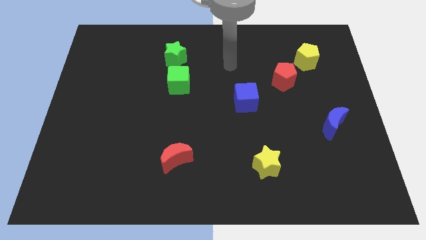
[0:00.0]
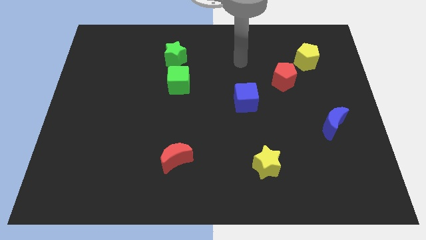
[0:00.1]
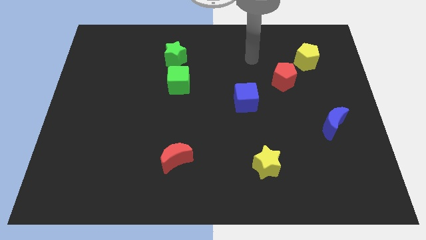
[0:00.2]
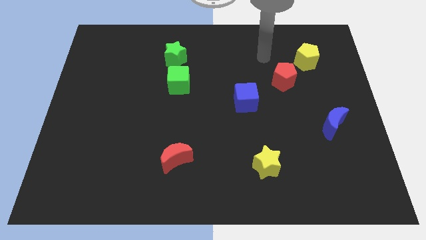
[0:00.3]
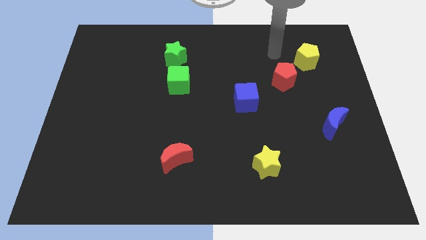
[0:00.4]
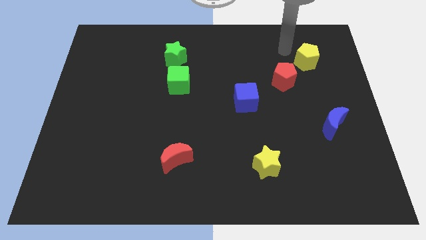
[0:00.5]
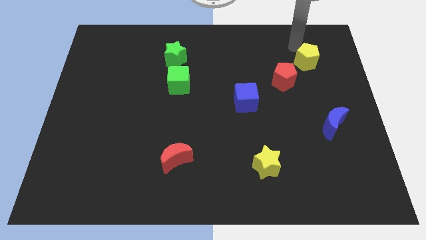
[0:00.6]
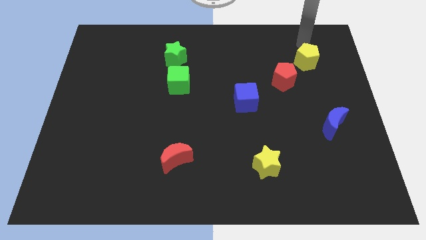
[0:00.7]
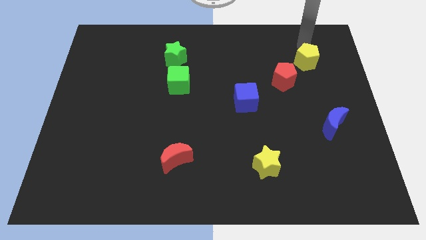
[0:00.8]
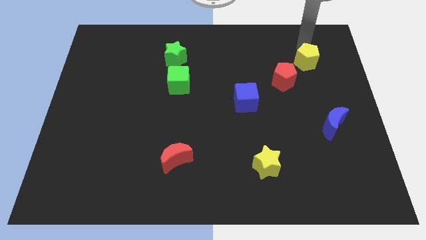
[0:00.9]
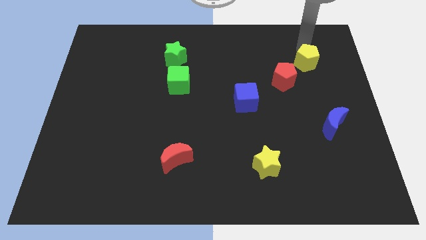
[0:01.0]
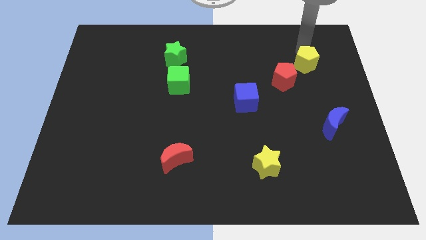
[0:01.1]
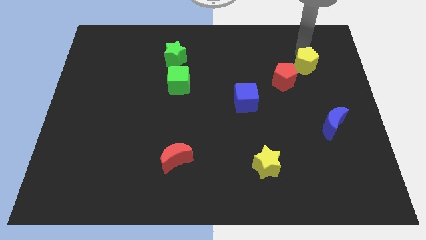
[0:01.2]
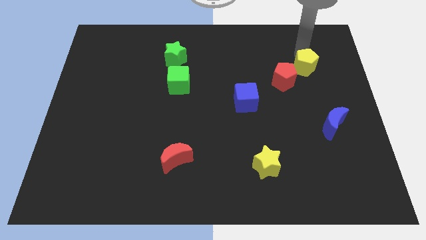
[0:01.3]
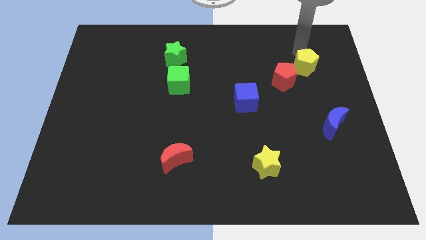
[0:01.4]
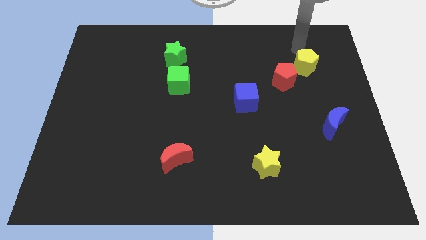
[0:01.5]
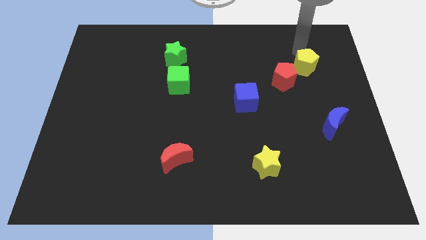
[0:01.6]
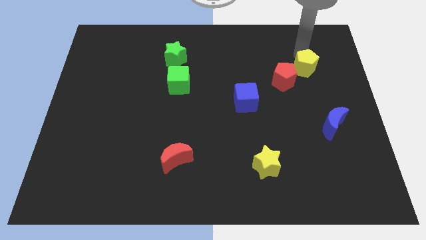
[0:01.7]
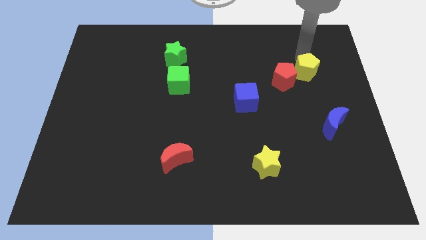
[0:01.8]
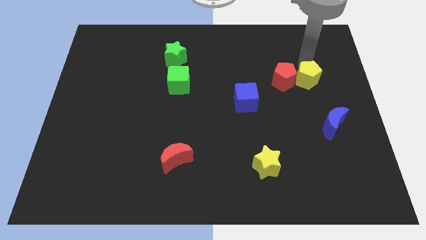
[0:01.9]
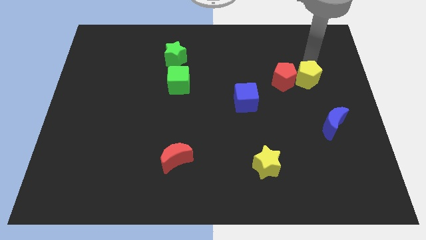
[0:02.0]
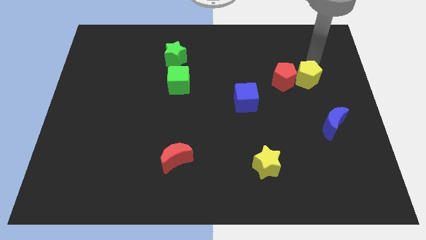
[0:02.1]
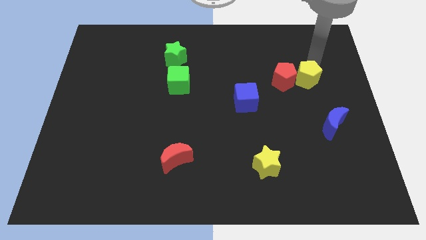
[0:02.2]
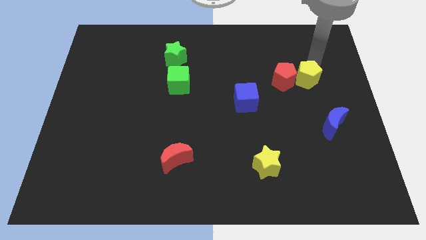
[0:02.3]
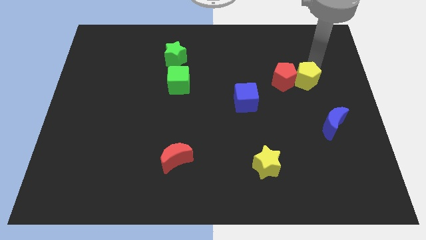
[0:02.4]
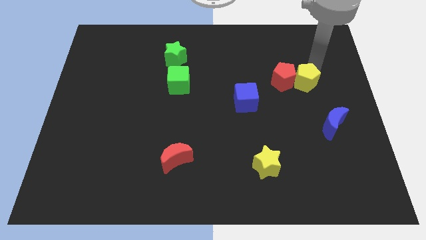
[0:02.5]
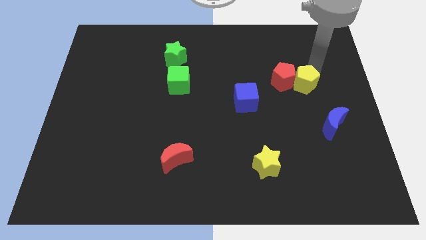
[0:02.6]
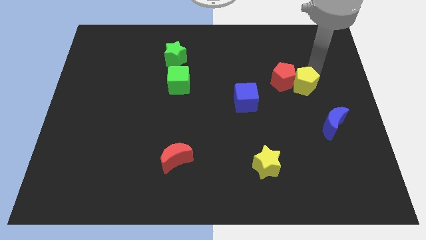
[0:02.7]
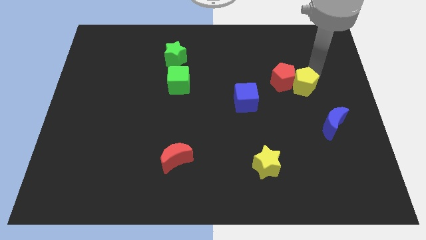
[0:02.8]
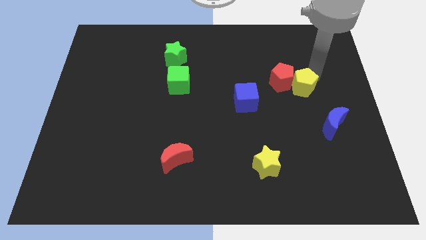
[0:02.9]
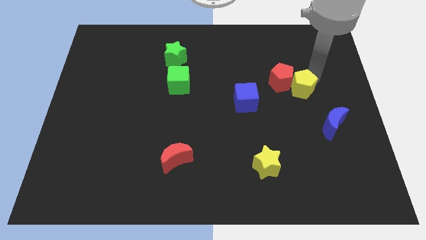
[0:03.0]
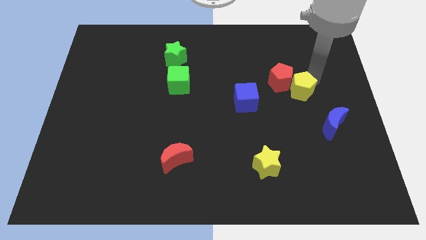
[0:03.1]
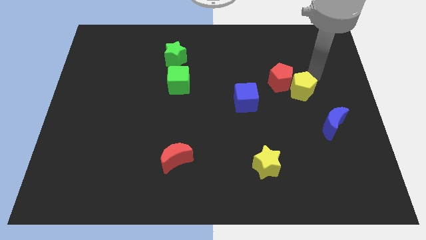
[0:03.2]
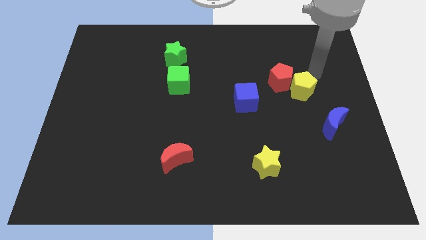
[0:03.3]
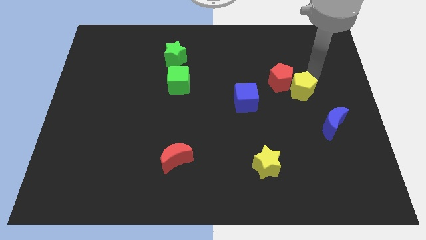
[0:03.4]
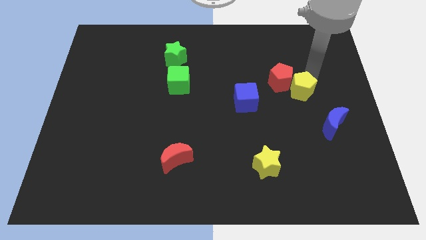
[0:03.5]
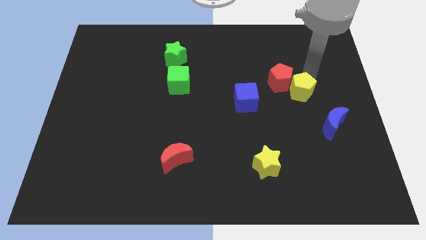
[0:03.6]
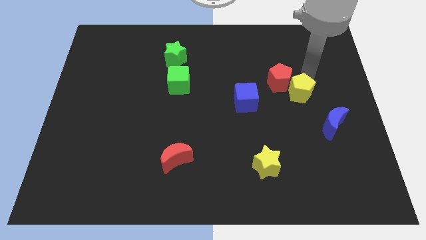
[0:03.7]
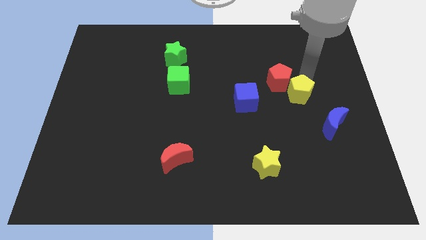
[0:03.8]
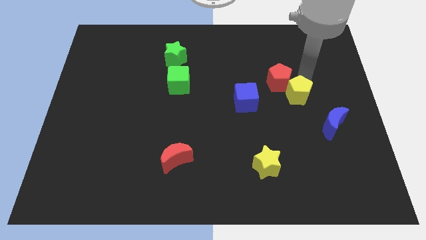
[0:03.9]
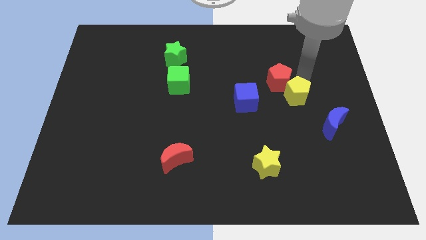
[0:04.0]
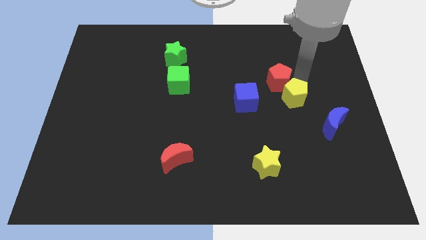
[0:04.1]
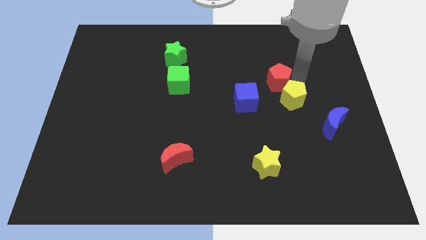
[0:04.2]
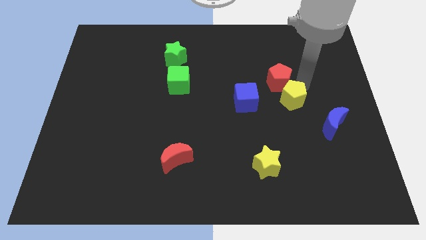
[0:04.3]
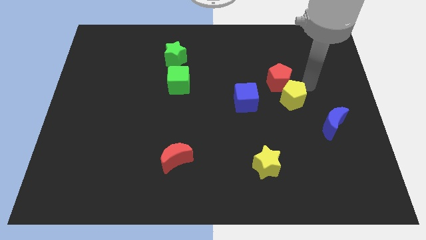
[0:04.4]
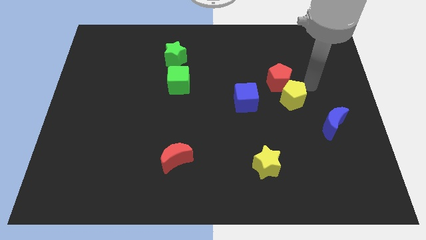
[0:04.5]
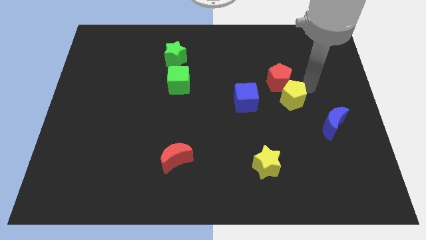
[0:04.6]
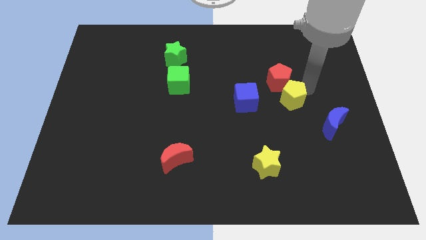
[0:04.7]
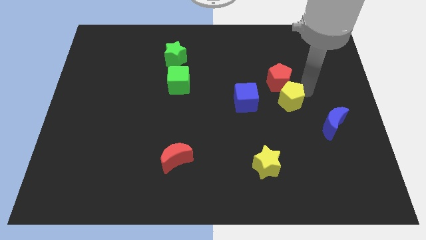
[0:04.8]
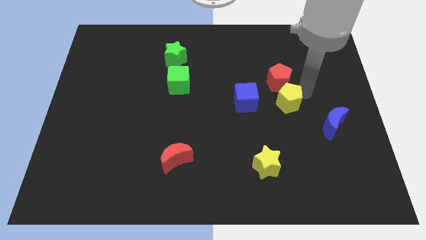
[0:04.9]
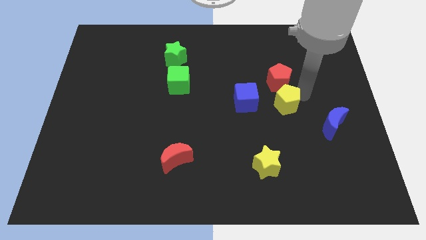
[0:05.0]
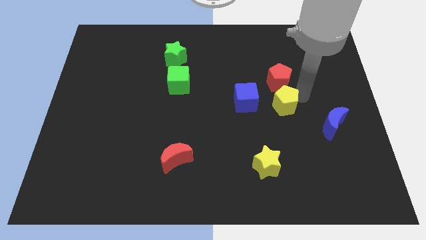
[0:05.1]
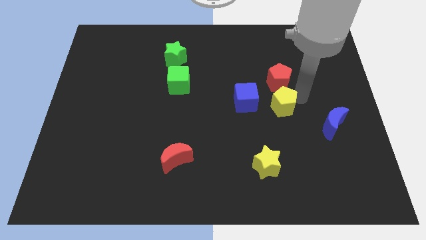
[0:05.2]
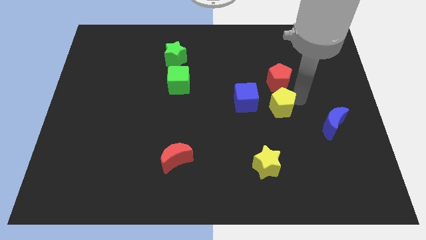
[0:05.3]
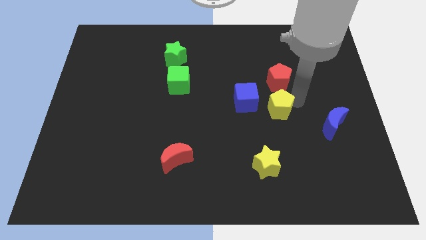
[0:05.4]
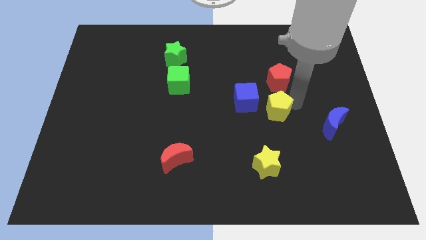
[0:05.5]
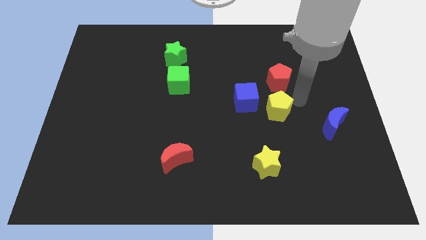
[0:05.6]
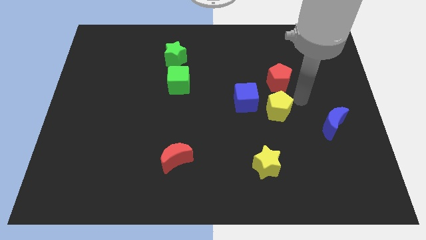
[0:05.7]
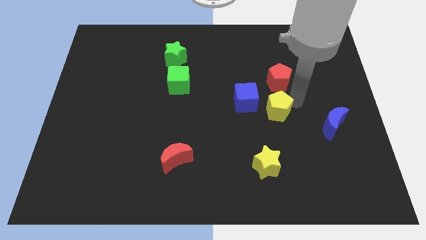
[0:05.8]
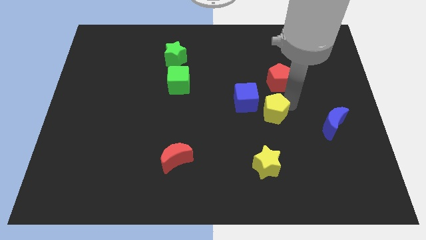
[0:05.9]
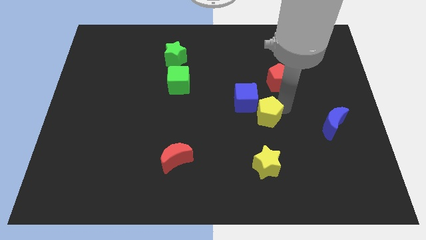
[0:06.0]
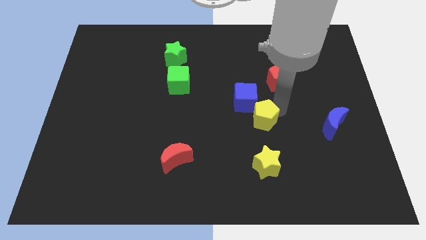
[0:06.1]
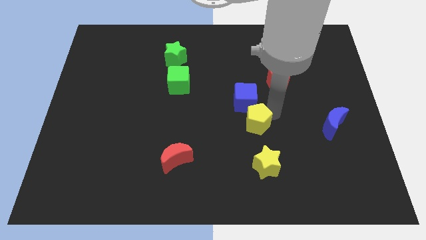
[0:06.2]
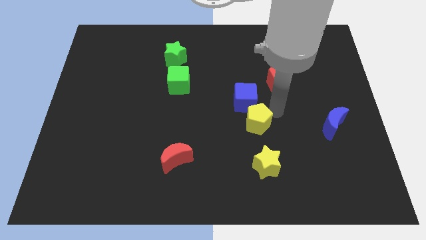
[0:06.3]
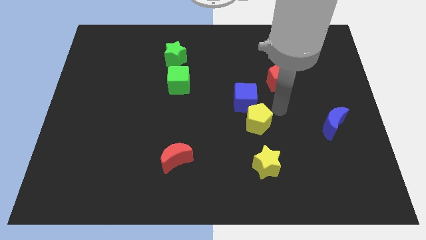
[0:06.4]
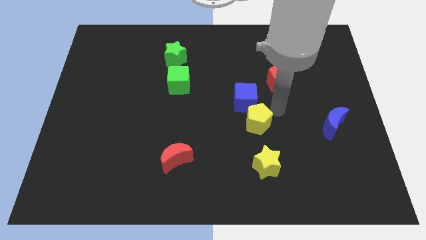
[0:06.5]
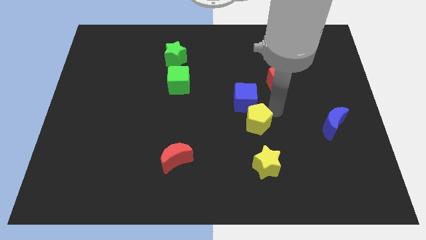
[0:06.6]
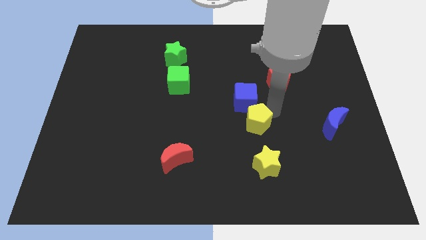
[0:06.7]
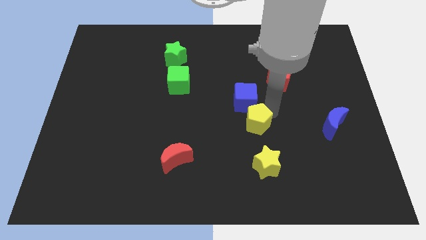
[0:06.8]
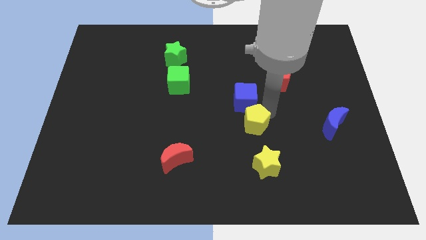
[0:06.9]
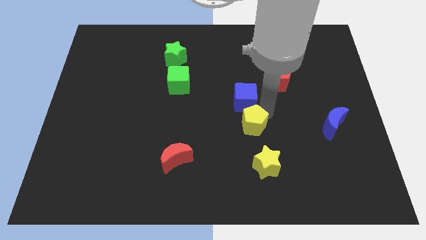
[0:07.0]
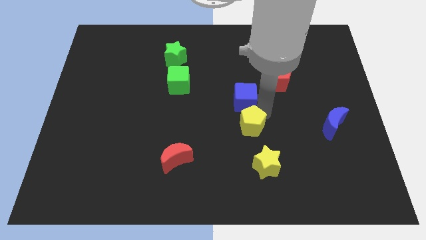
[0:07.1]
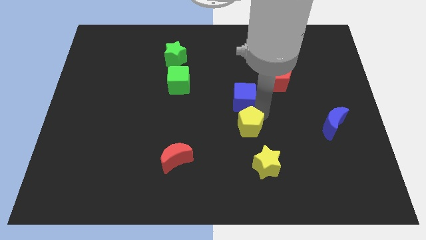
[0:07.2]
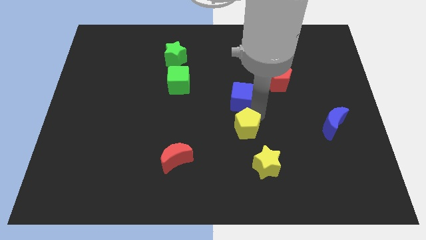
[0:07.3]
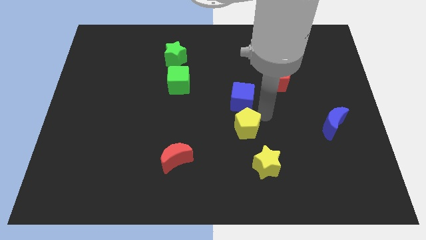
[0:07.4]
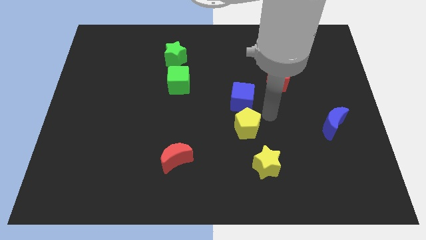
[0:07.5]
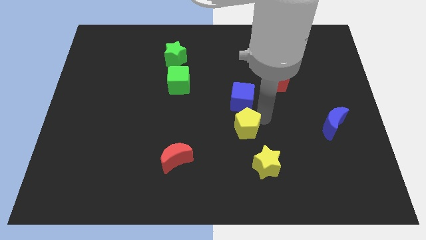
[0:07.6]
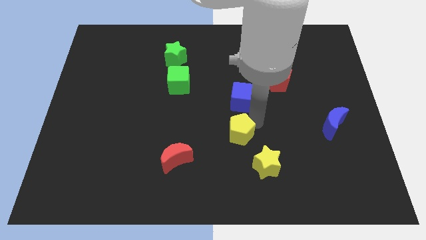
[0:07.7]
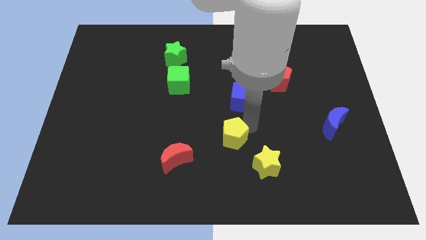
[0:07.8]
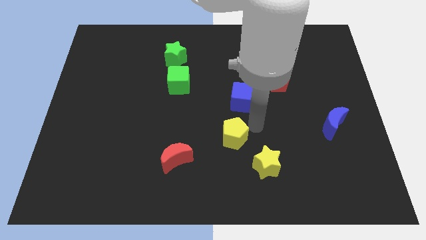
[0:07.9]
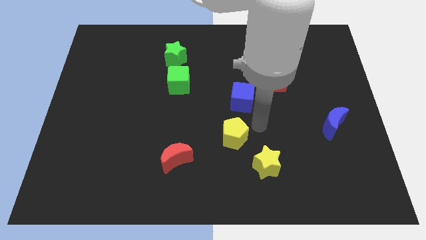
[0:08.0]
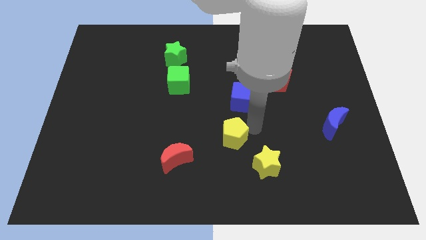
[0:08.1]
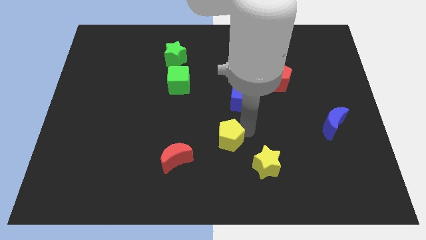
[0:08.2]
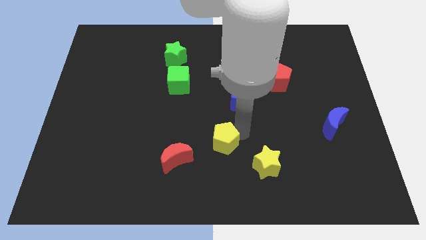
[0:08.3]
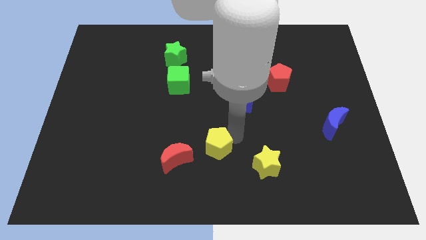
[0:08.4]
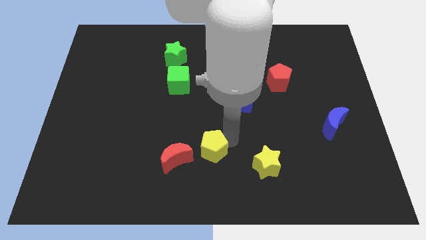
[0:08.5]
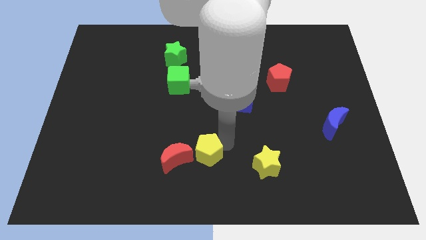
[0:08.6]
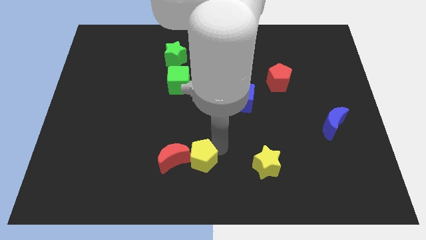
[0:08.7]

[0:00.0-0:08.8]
push the yellow pentagon towards the red moon
